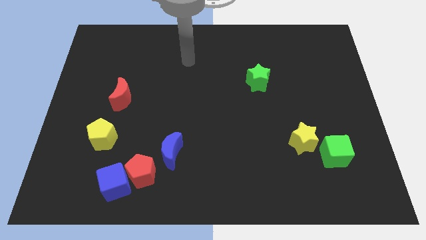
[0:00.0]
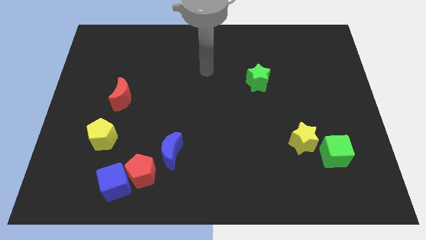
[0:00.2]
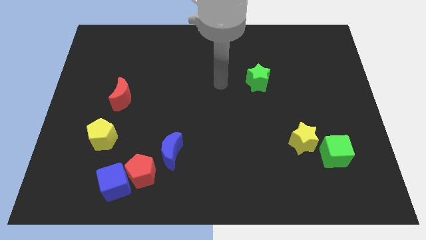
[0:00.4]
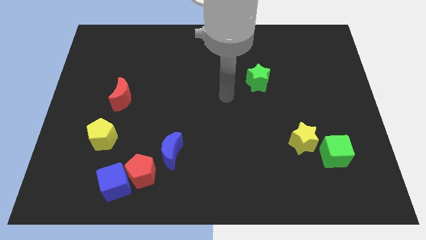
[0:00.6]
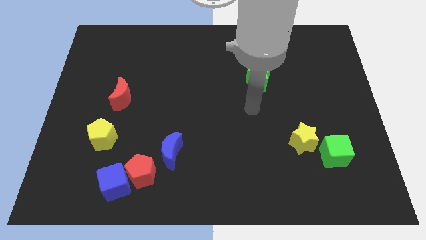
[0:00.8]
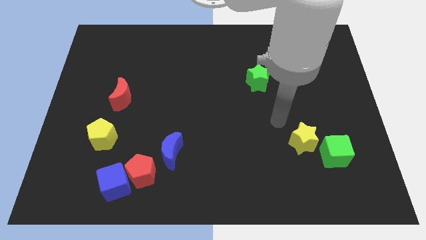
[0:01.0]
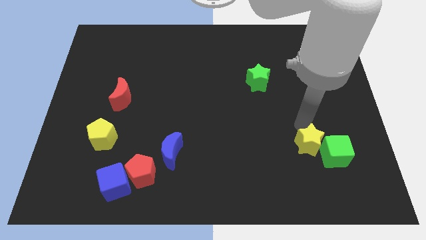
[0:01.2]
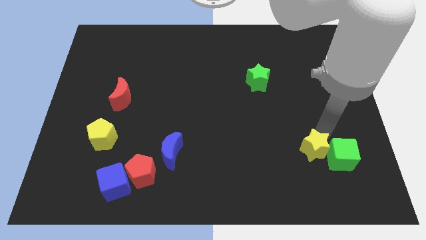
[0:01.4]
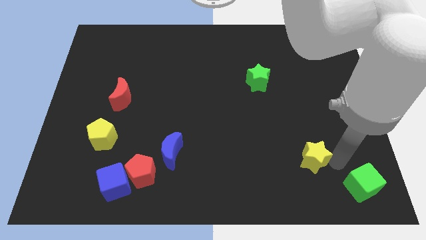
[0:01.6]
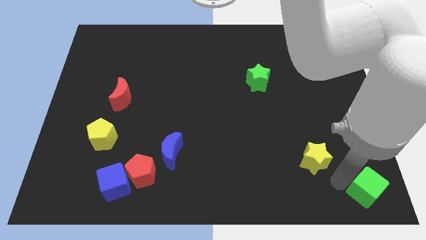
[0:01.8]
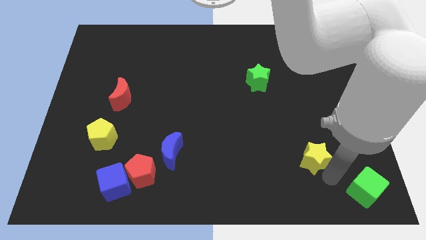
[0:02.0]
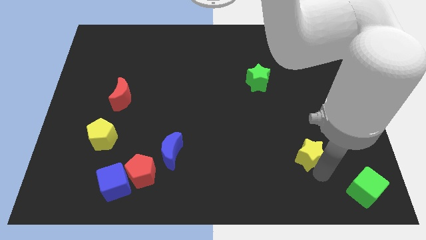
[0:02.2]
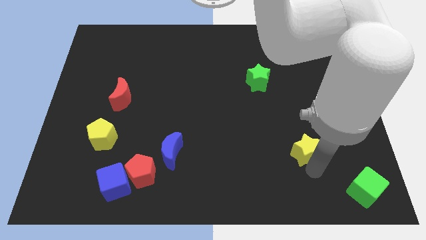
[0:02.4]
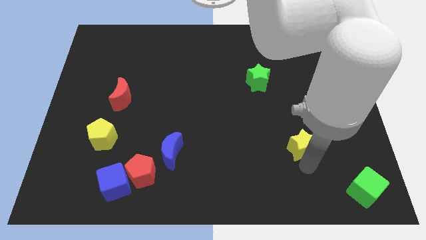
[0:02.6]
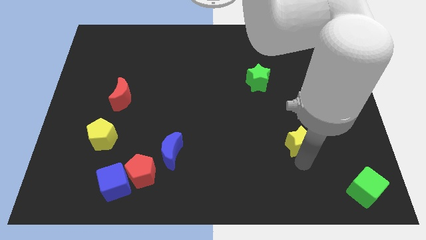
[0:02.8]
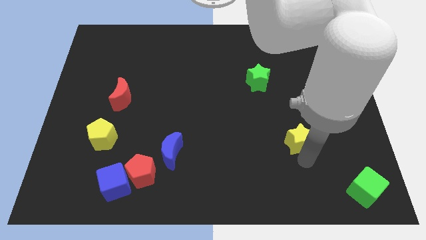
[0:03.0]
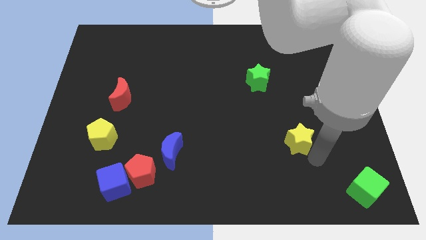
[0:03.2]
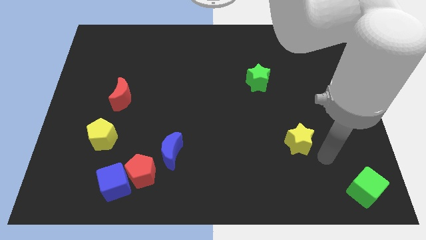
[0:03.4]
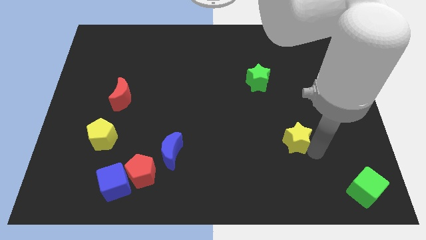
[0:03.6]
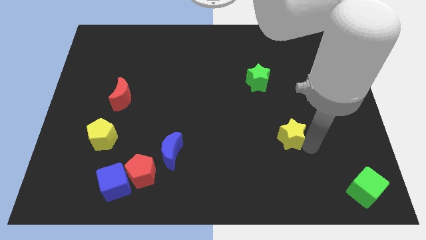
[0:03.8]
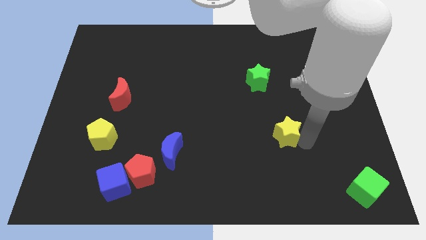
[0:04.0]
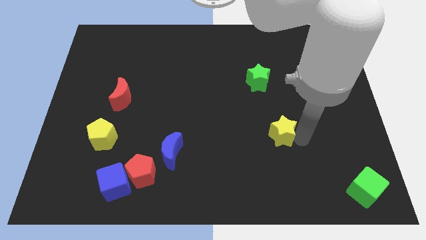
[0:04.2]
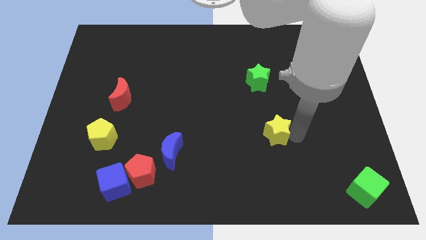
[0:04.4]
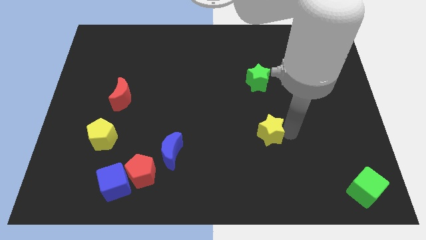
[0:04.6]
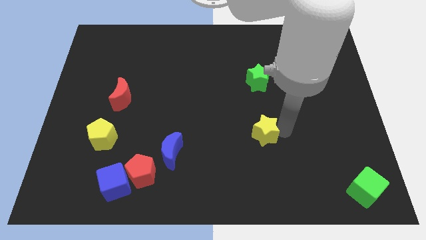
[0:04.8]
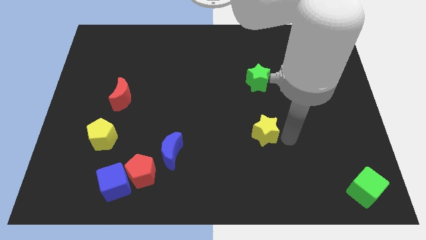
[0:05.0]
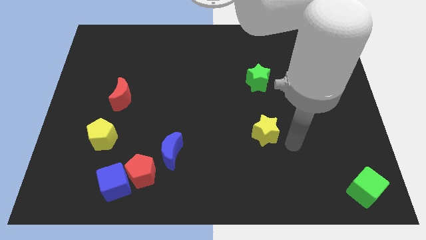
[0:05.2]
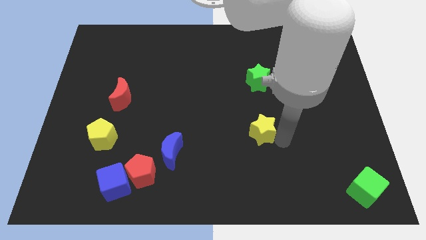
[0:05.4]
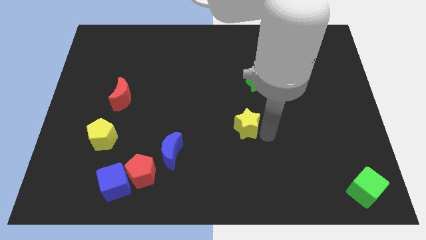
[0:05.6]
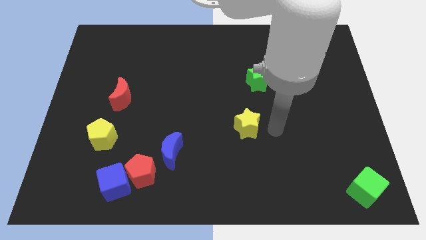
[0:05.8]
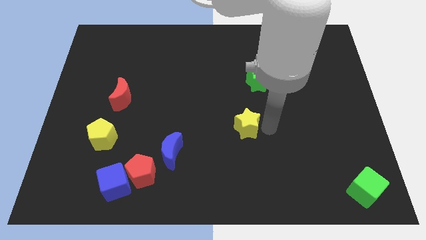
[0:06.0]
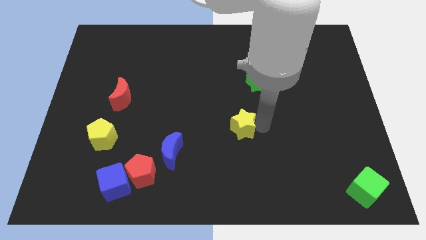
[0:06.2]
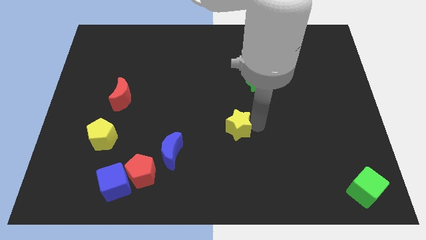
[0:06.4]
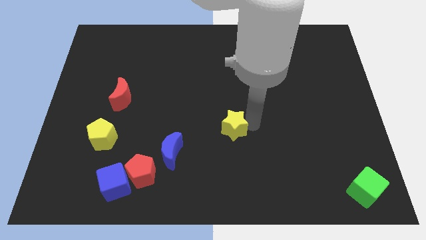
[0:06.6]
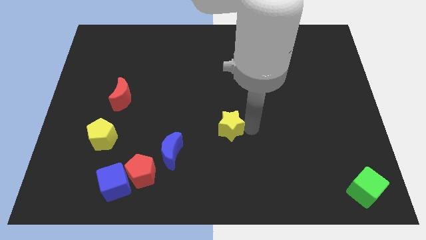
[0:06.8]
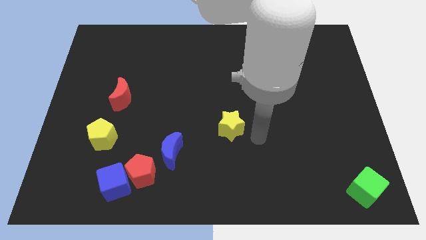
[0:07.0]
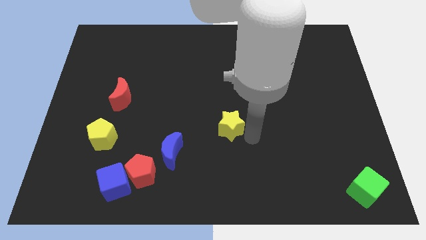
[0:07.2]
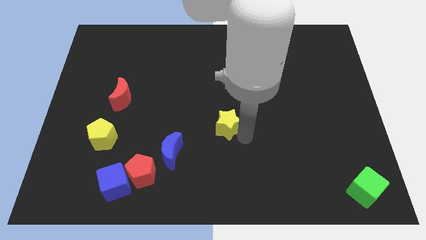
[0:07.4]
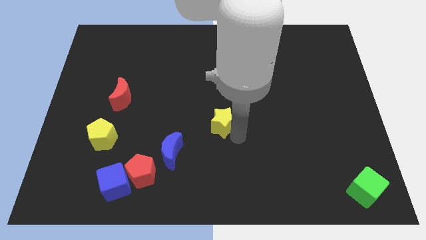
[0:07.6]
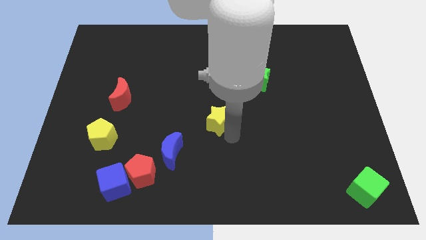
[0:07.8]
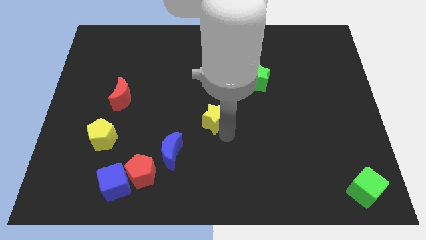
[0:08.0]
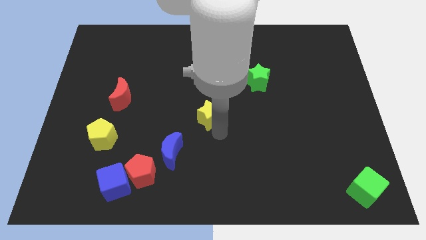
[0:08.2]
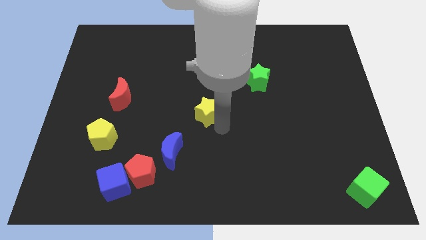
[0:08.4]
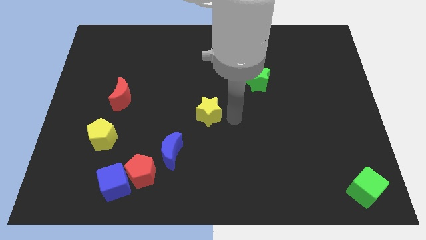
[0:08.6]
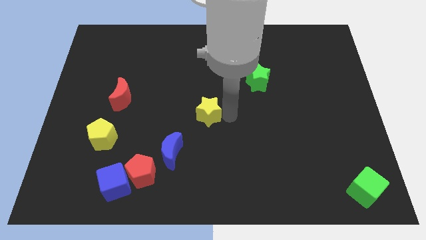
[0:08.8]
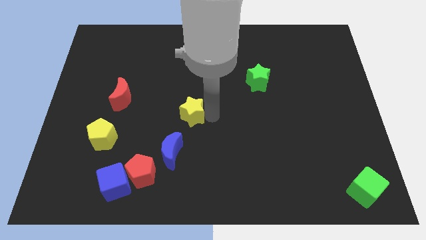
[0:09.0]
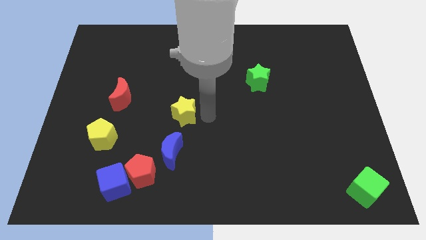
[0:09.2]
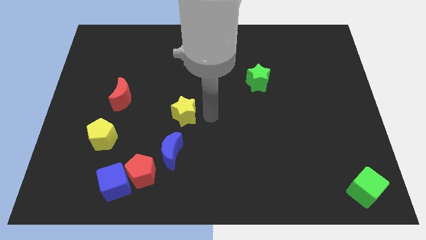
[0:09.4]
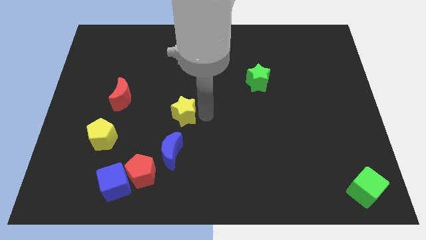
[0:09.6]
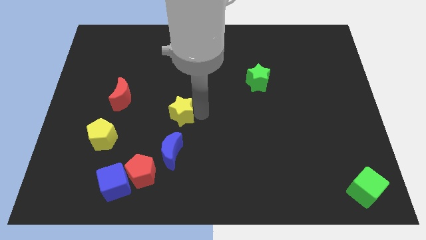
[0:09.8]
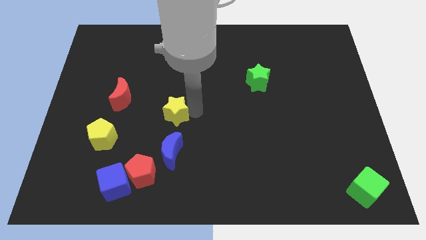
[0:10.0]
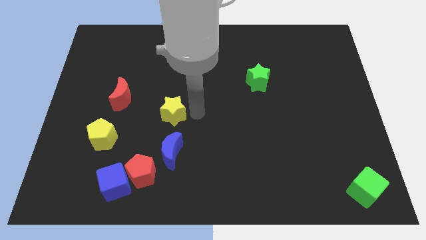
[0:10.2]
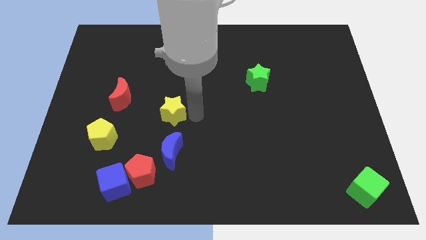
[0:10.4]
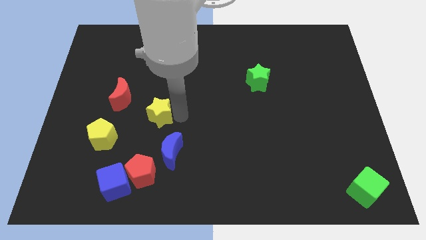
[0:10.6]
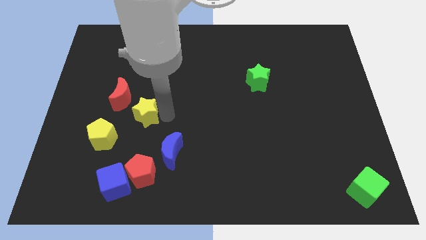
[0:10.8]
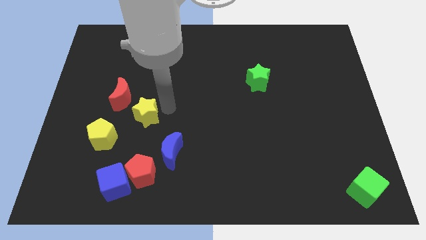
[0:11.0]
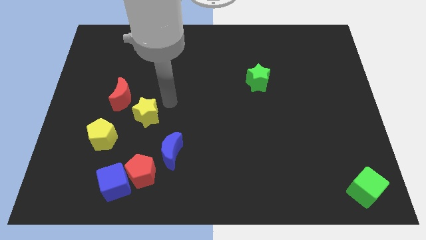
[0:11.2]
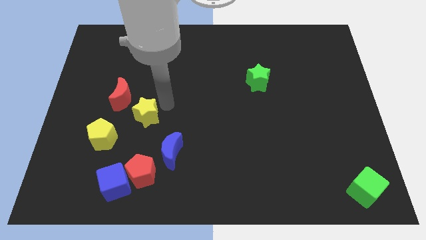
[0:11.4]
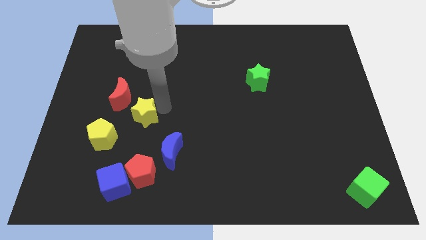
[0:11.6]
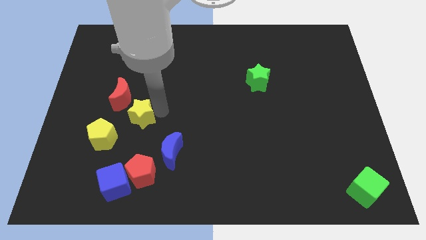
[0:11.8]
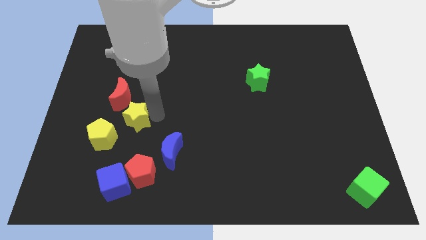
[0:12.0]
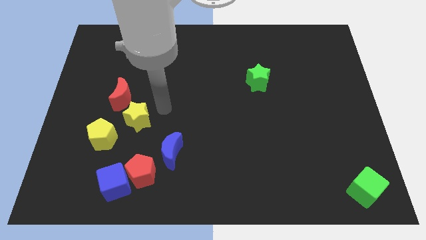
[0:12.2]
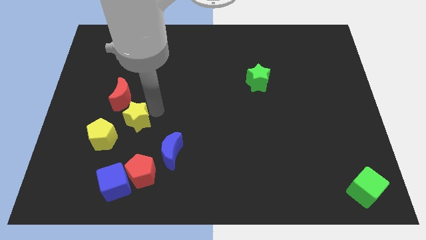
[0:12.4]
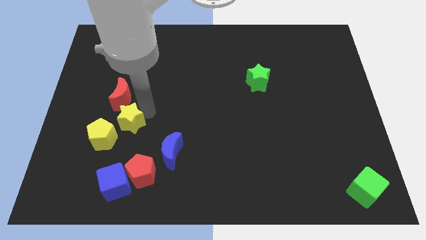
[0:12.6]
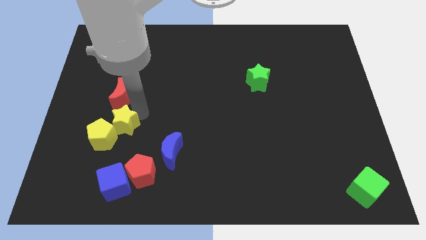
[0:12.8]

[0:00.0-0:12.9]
slide the yellow star to the yellow pentagon

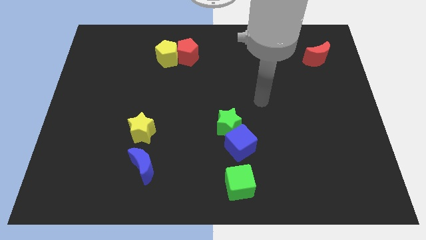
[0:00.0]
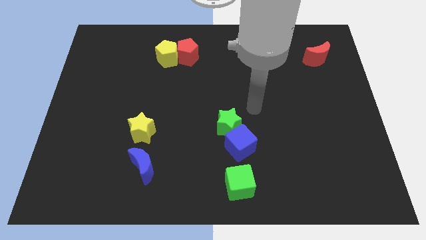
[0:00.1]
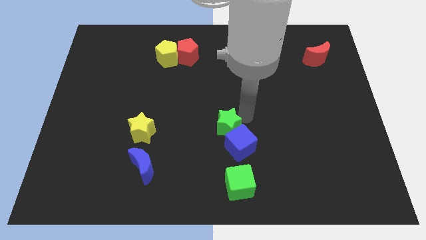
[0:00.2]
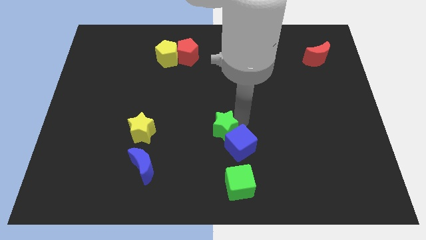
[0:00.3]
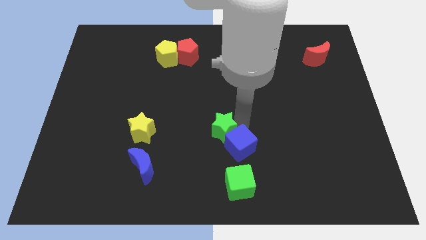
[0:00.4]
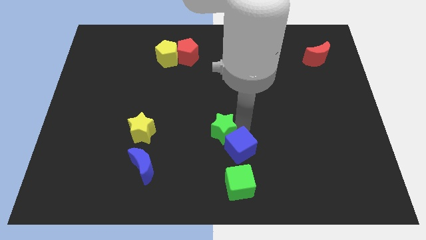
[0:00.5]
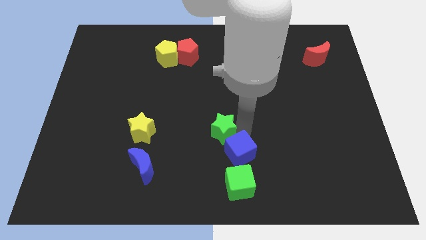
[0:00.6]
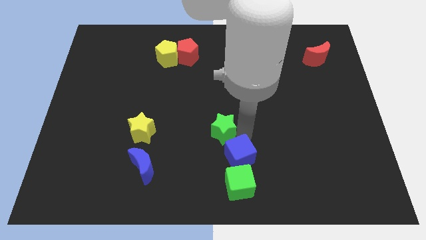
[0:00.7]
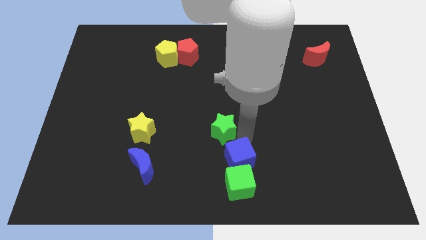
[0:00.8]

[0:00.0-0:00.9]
slide the blue cube close to the green cube
